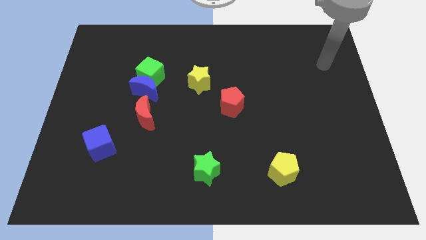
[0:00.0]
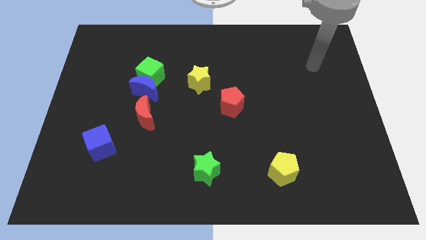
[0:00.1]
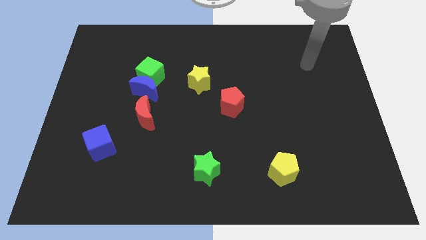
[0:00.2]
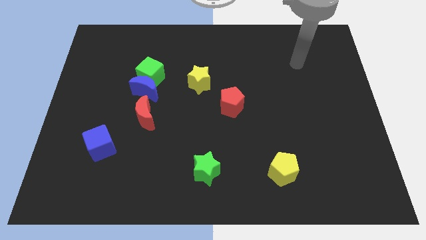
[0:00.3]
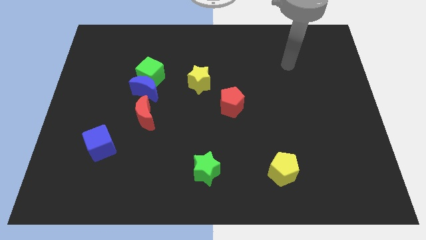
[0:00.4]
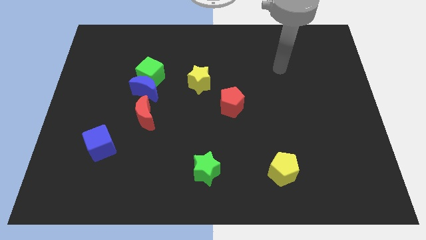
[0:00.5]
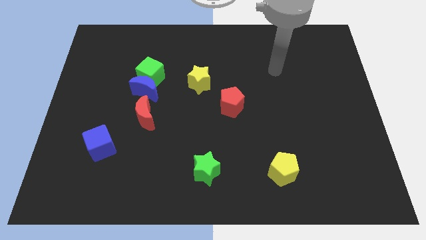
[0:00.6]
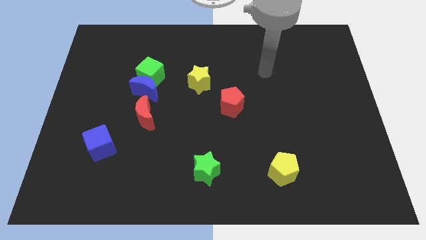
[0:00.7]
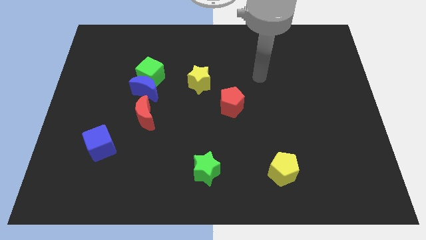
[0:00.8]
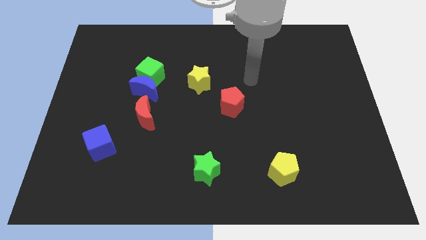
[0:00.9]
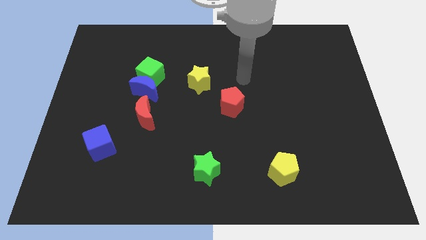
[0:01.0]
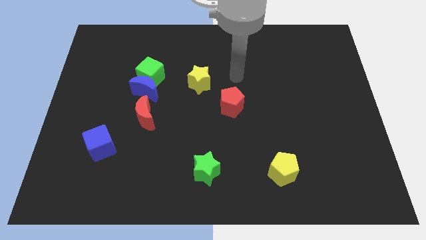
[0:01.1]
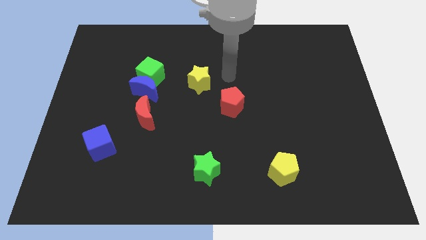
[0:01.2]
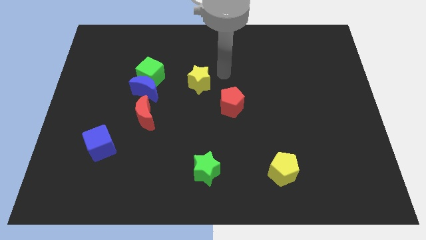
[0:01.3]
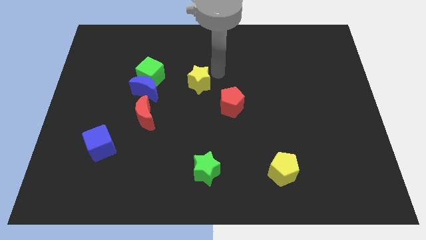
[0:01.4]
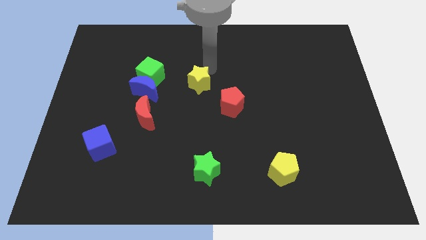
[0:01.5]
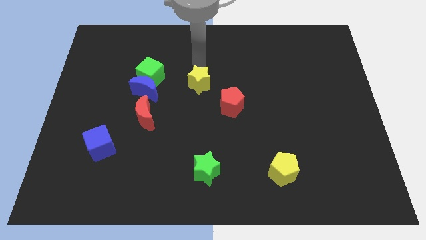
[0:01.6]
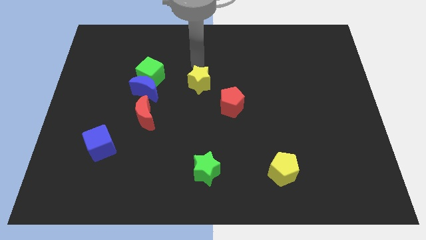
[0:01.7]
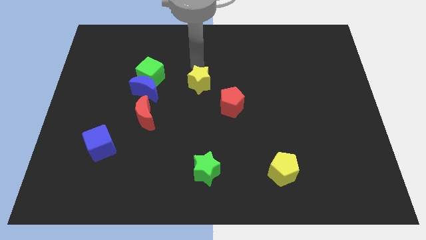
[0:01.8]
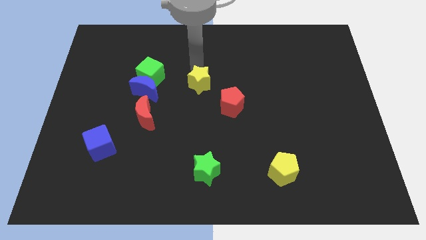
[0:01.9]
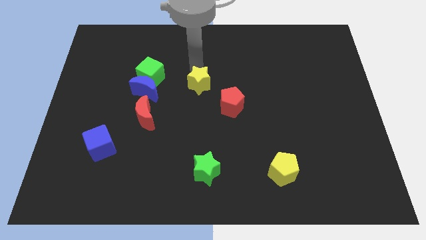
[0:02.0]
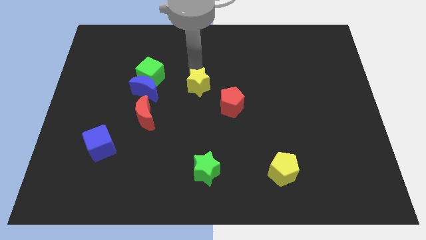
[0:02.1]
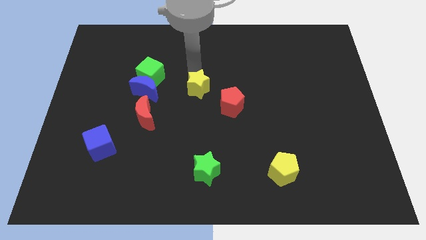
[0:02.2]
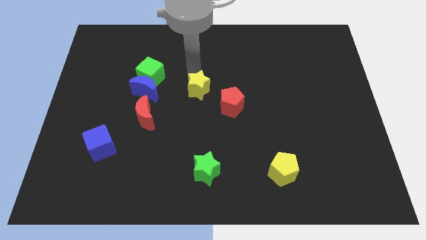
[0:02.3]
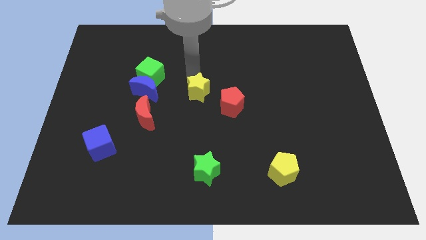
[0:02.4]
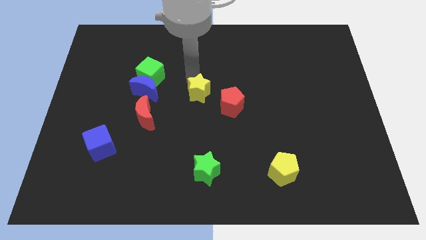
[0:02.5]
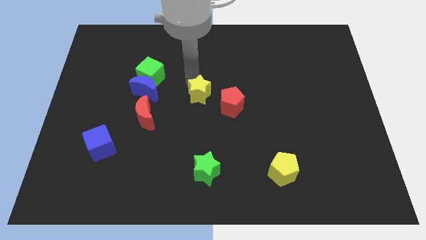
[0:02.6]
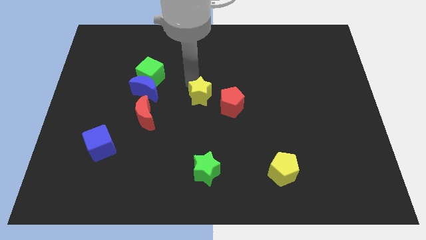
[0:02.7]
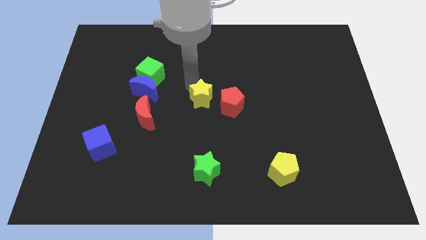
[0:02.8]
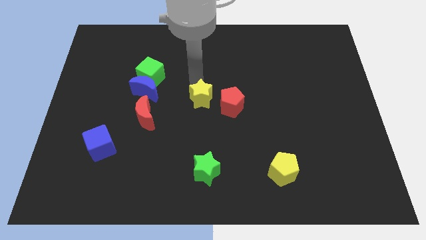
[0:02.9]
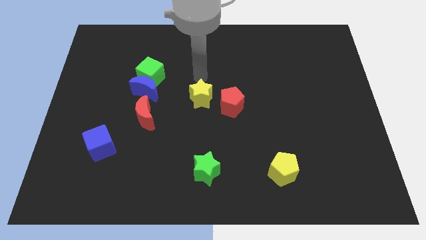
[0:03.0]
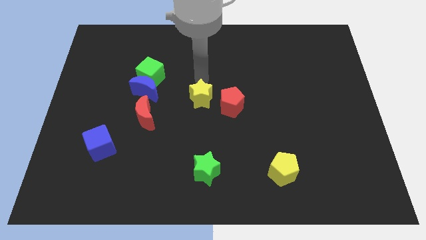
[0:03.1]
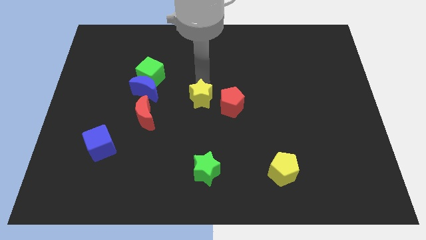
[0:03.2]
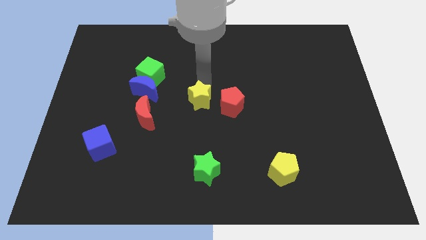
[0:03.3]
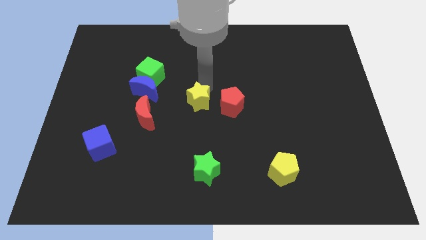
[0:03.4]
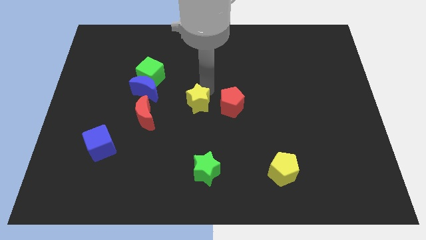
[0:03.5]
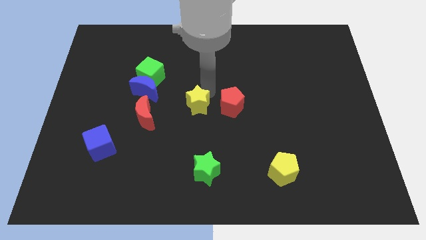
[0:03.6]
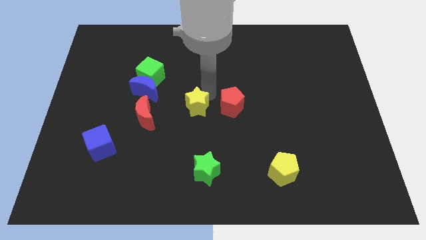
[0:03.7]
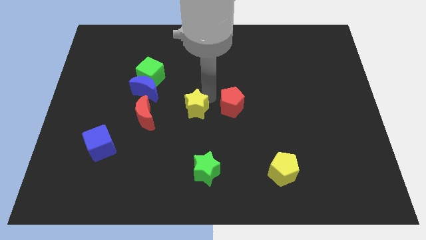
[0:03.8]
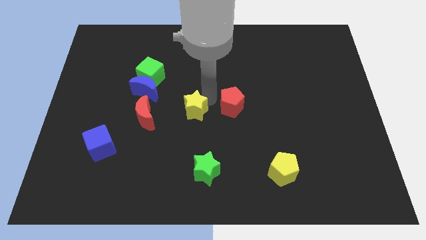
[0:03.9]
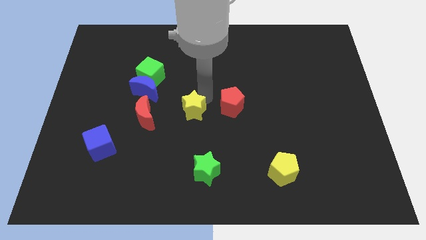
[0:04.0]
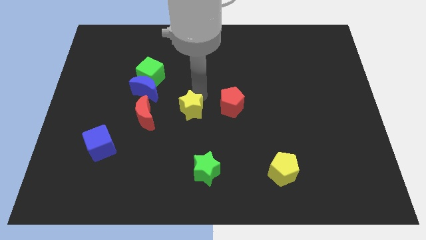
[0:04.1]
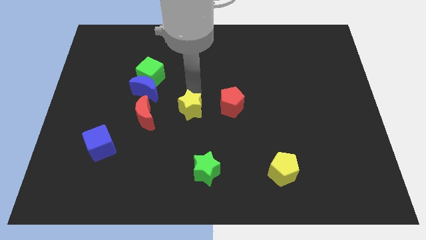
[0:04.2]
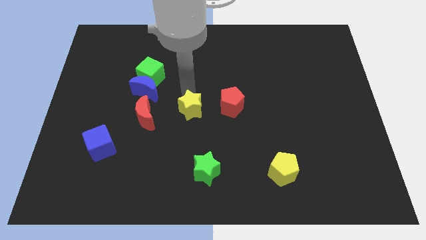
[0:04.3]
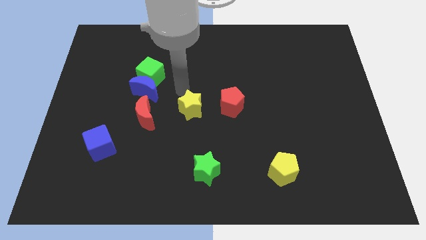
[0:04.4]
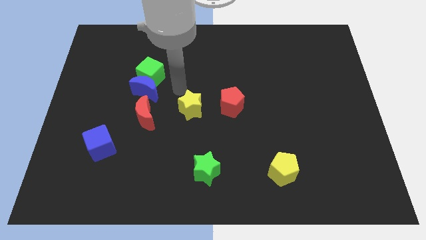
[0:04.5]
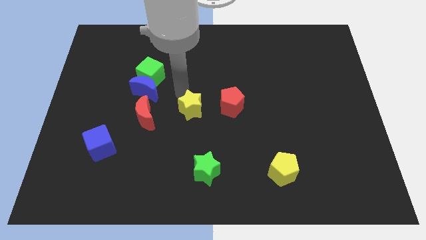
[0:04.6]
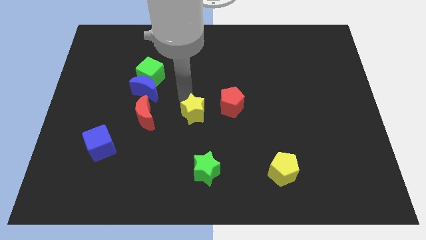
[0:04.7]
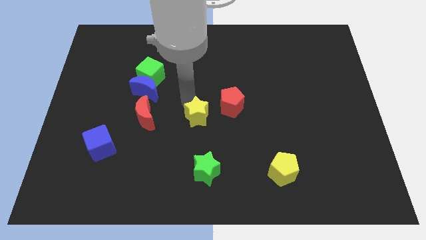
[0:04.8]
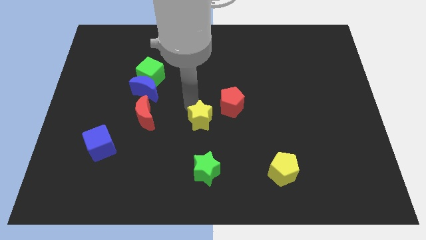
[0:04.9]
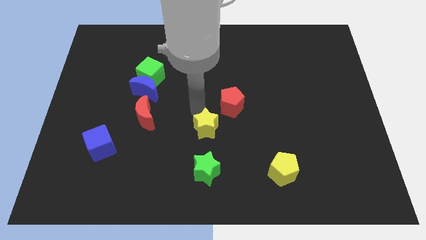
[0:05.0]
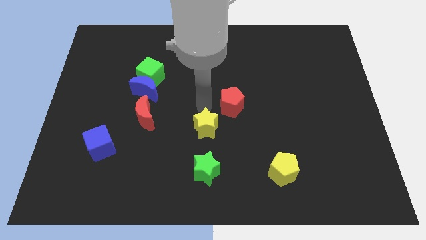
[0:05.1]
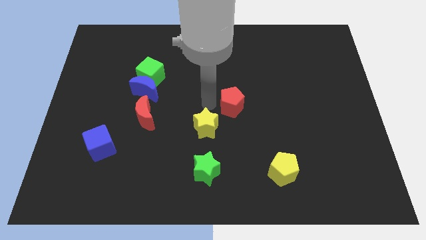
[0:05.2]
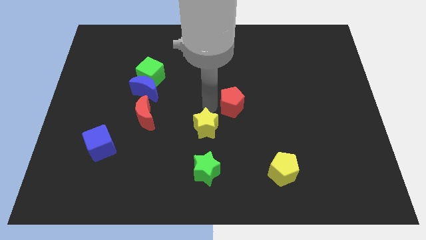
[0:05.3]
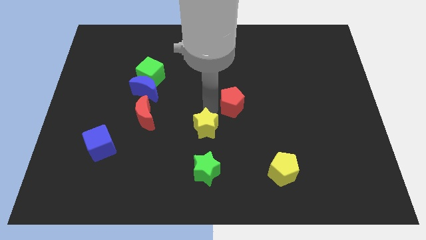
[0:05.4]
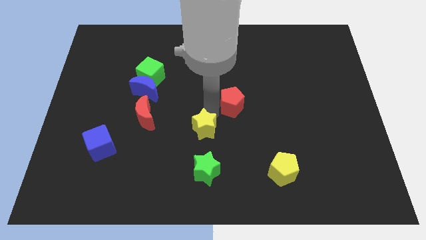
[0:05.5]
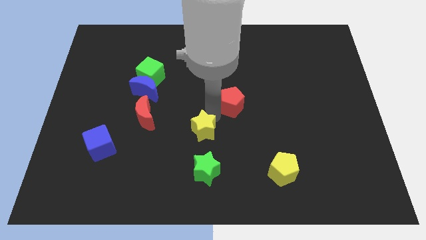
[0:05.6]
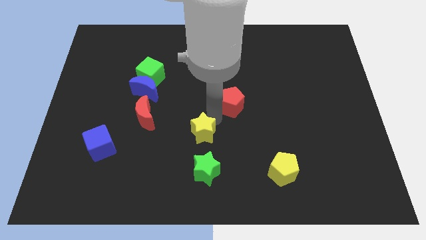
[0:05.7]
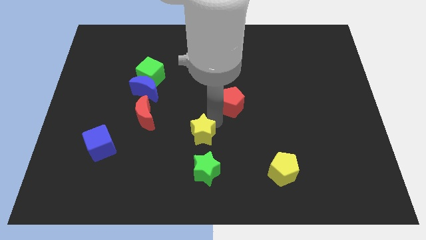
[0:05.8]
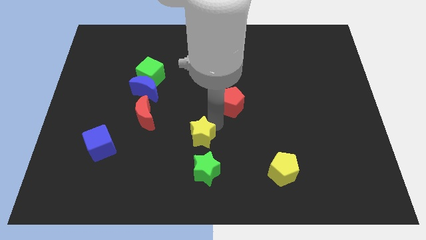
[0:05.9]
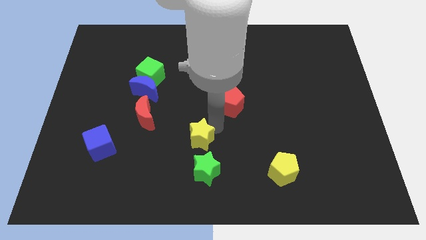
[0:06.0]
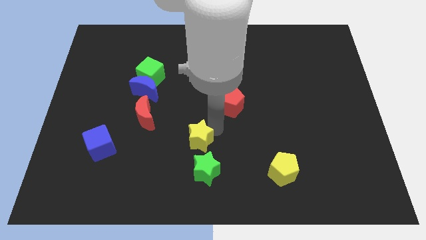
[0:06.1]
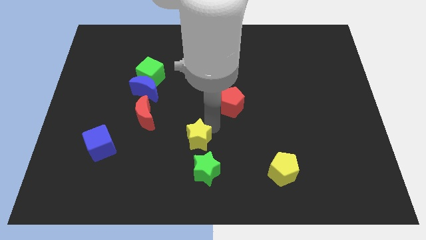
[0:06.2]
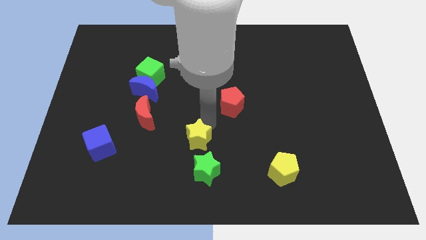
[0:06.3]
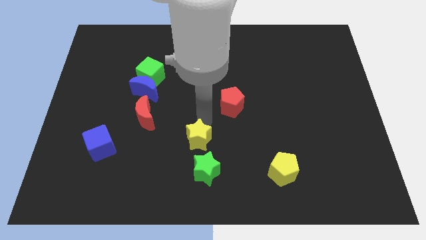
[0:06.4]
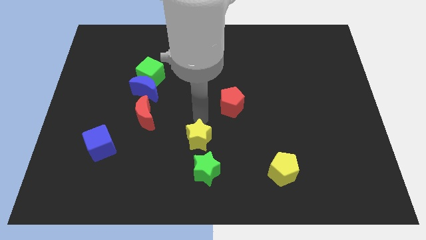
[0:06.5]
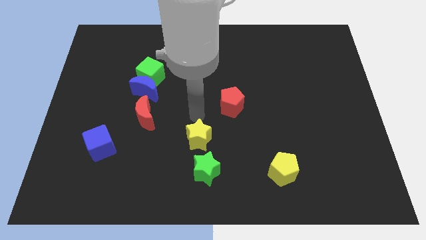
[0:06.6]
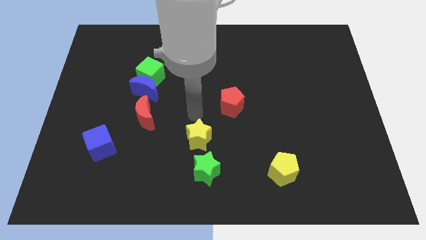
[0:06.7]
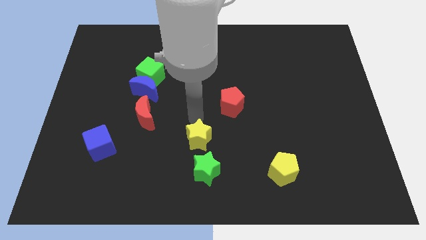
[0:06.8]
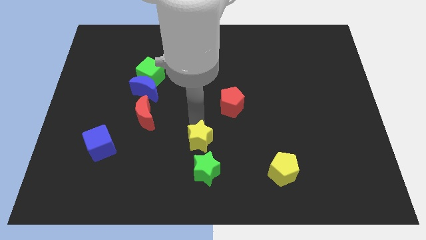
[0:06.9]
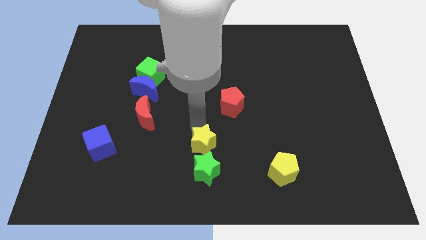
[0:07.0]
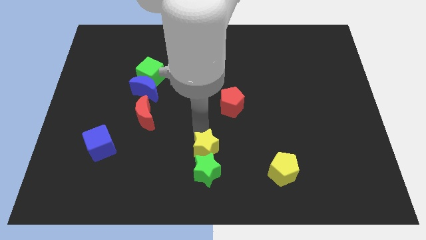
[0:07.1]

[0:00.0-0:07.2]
put the yellow star next to the green star

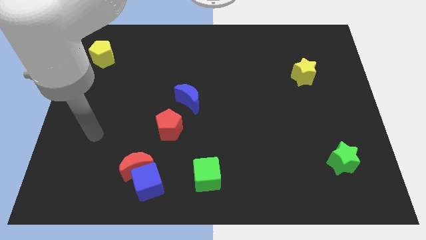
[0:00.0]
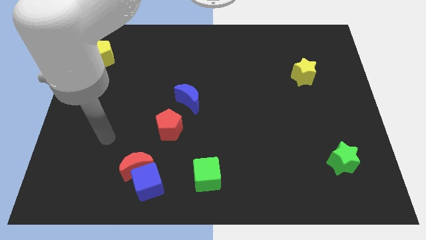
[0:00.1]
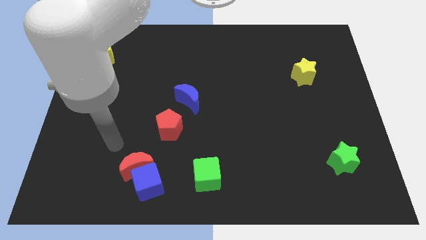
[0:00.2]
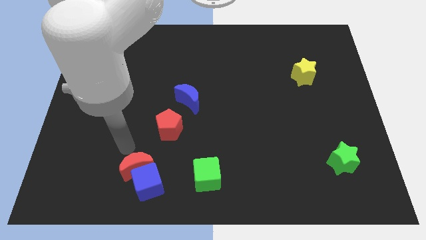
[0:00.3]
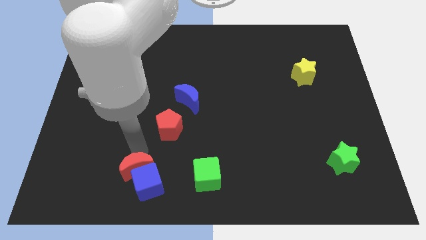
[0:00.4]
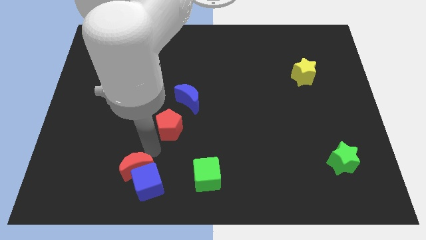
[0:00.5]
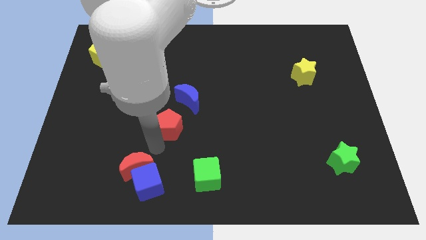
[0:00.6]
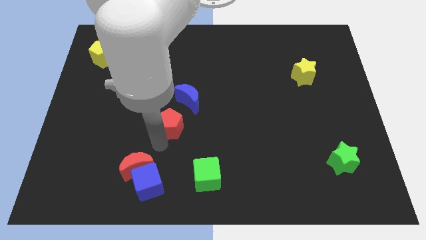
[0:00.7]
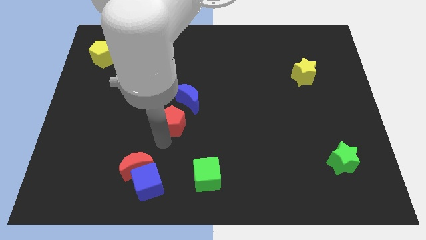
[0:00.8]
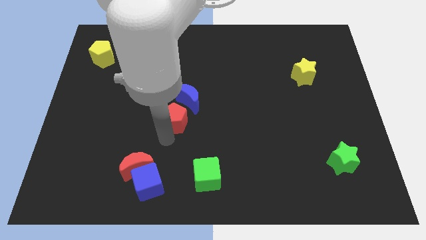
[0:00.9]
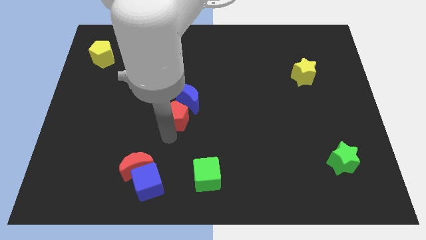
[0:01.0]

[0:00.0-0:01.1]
push the red pentagon to the blue moon
